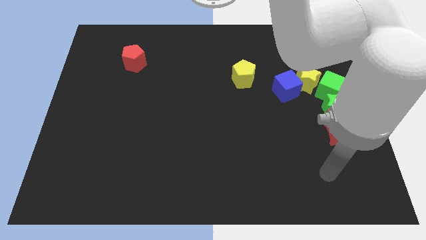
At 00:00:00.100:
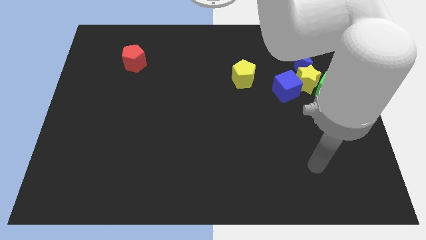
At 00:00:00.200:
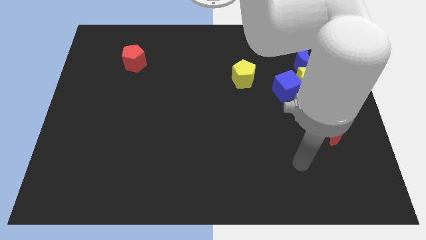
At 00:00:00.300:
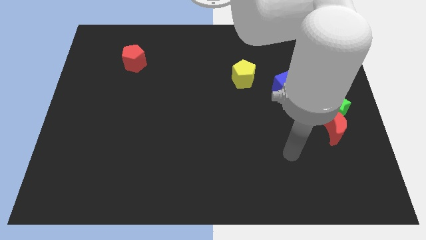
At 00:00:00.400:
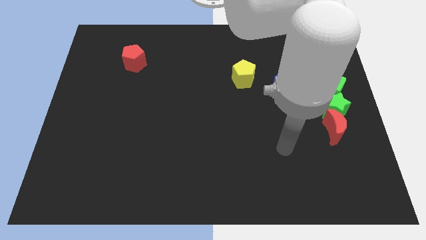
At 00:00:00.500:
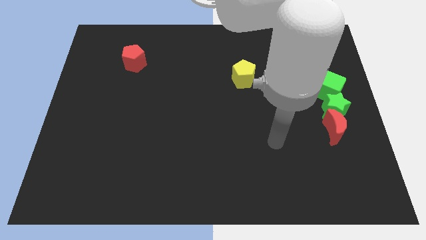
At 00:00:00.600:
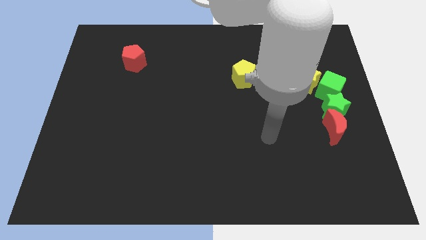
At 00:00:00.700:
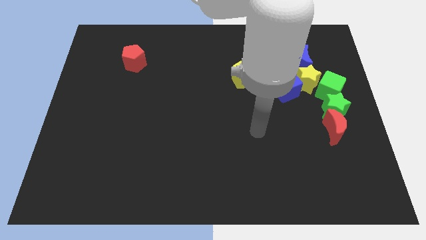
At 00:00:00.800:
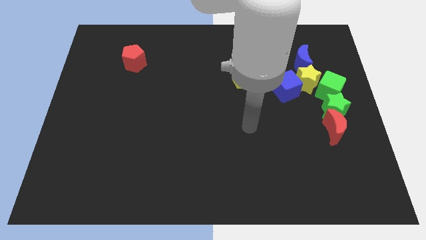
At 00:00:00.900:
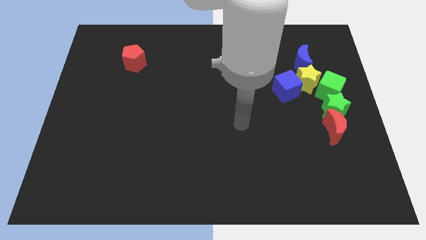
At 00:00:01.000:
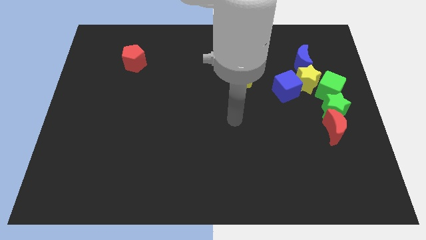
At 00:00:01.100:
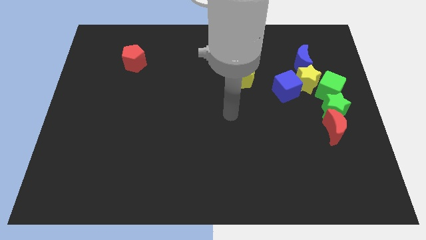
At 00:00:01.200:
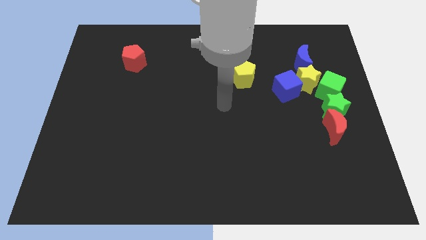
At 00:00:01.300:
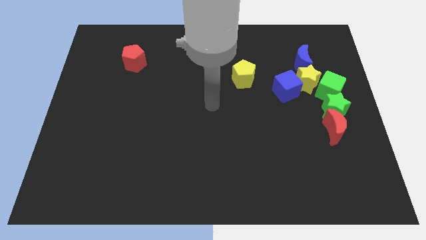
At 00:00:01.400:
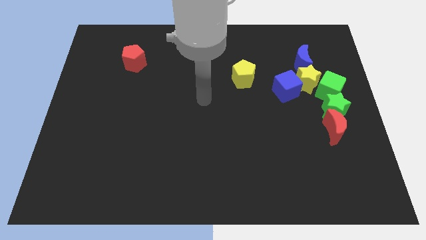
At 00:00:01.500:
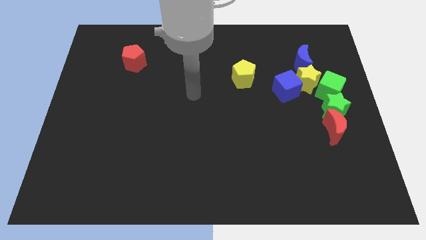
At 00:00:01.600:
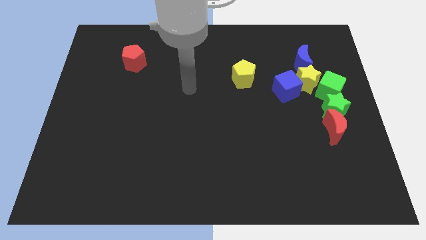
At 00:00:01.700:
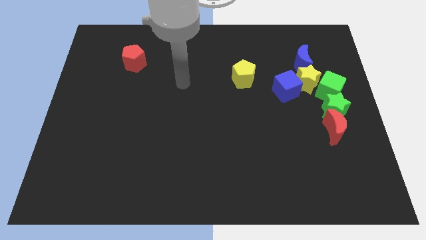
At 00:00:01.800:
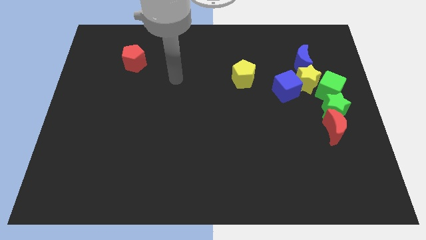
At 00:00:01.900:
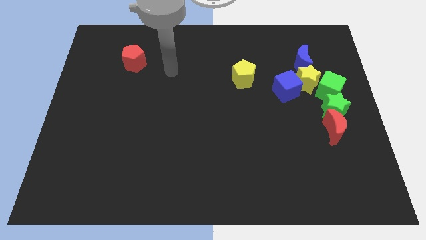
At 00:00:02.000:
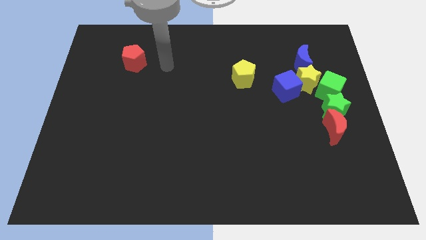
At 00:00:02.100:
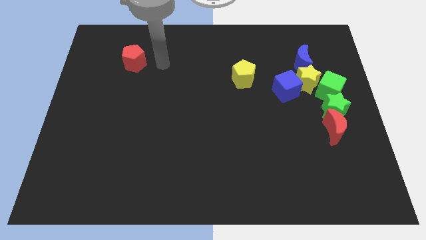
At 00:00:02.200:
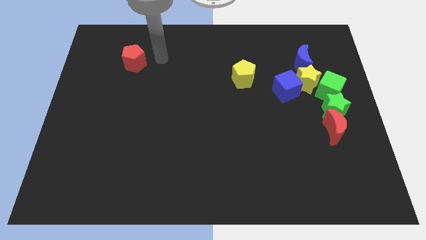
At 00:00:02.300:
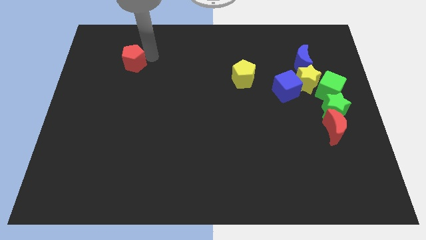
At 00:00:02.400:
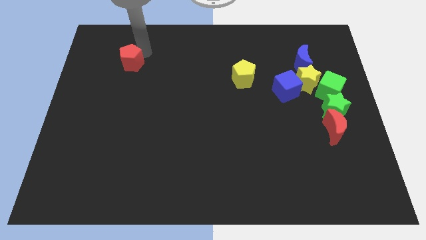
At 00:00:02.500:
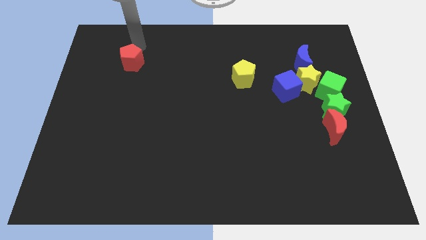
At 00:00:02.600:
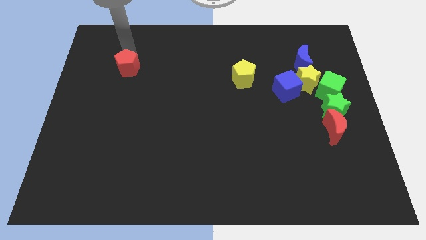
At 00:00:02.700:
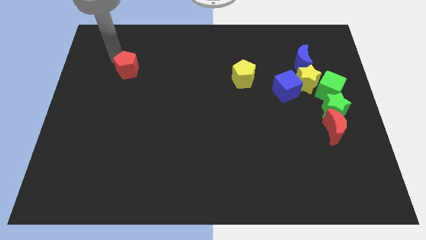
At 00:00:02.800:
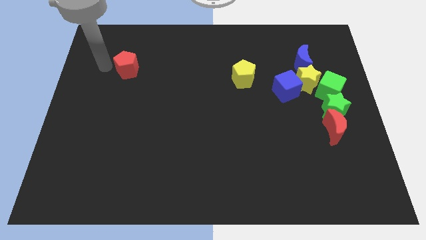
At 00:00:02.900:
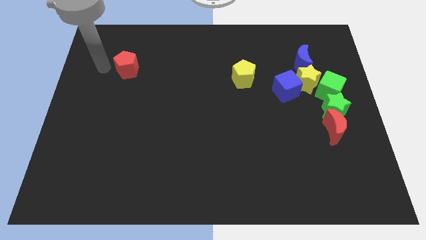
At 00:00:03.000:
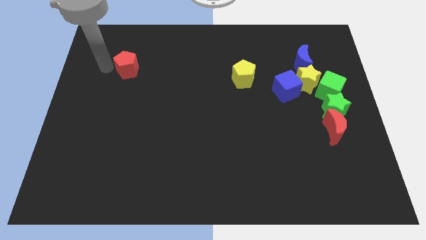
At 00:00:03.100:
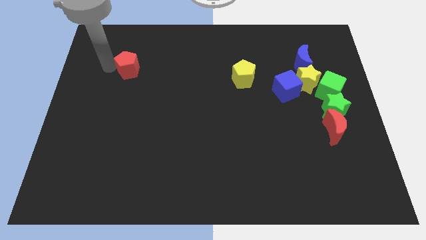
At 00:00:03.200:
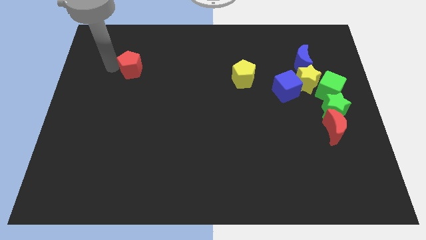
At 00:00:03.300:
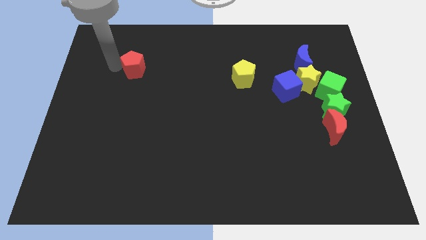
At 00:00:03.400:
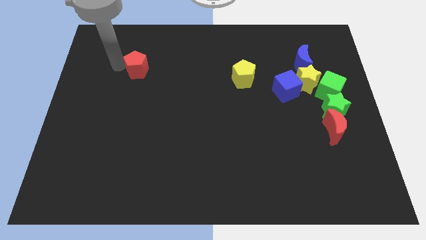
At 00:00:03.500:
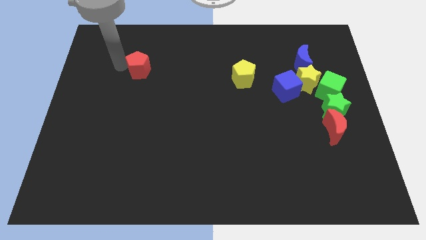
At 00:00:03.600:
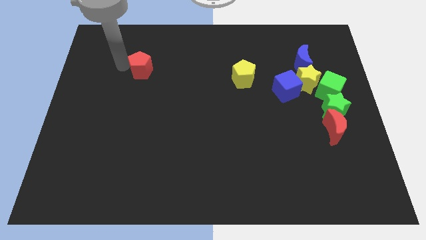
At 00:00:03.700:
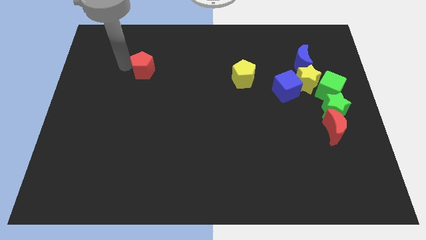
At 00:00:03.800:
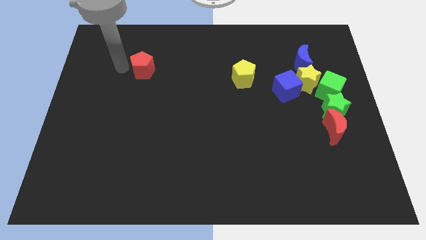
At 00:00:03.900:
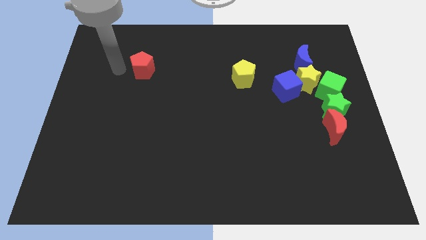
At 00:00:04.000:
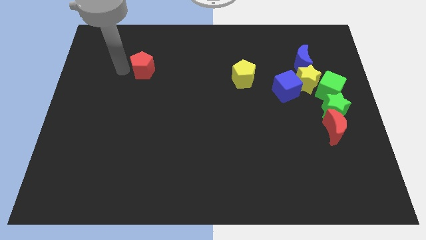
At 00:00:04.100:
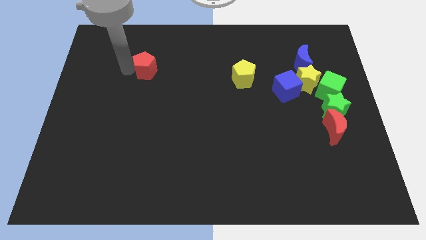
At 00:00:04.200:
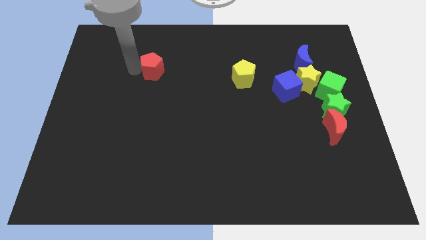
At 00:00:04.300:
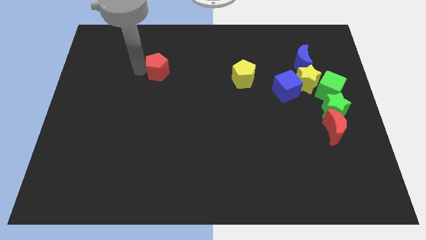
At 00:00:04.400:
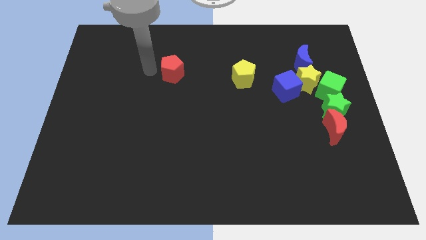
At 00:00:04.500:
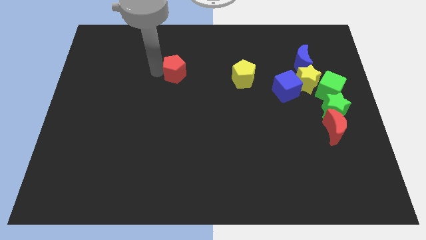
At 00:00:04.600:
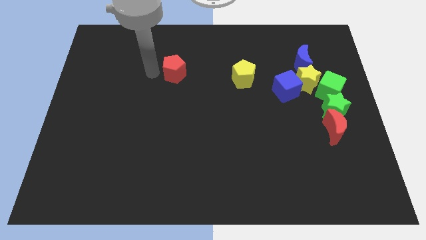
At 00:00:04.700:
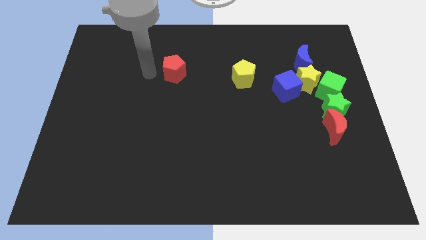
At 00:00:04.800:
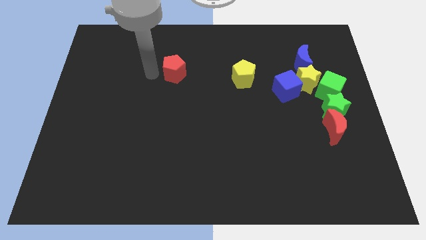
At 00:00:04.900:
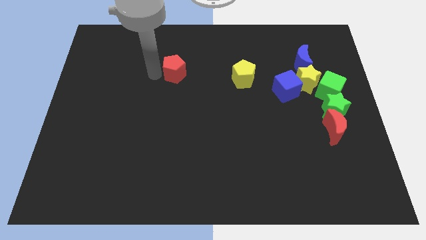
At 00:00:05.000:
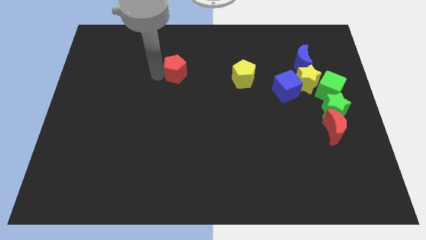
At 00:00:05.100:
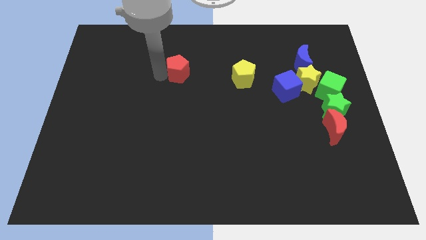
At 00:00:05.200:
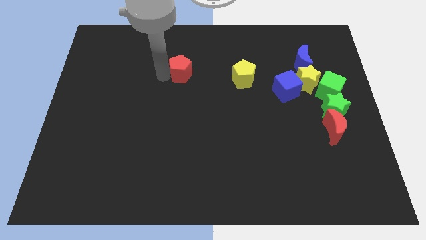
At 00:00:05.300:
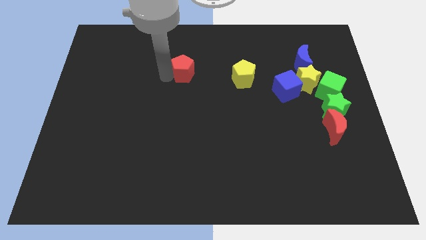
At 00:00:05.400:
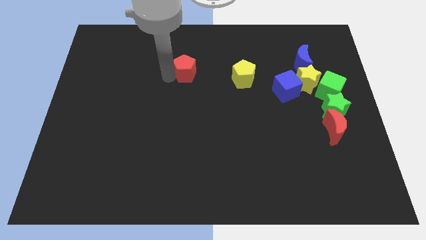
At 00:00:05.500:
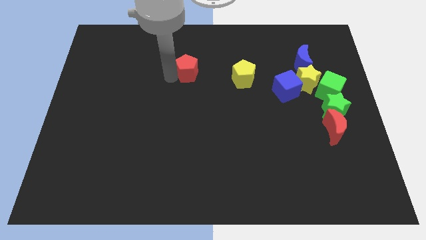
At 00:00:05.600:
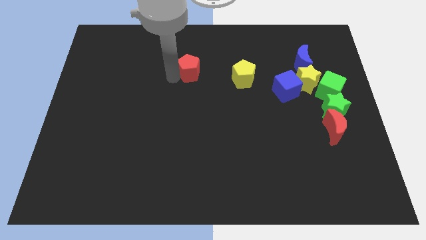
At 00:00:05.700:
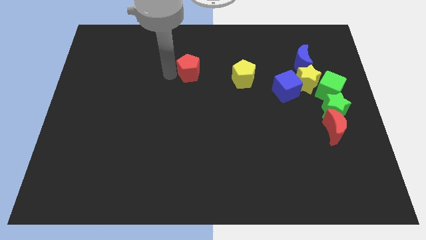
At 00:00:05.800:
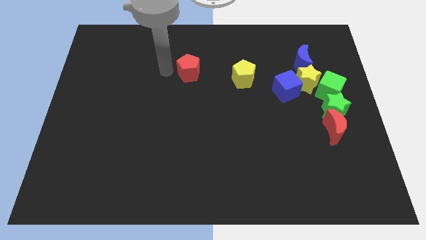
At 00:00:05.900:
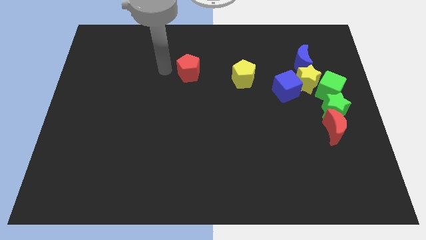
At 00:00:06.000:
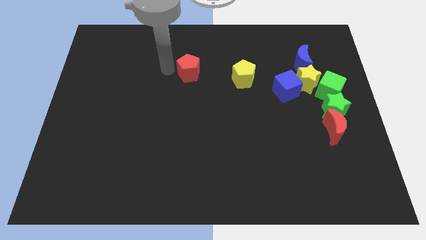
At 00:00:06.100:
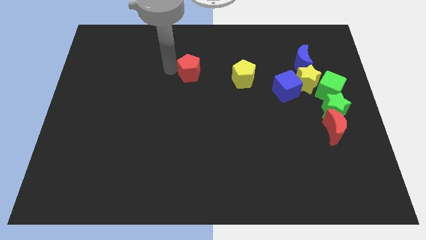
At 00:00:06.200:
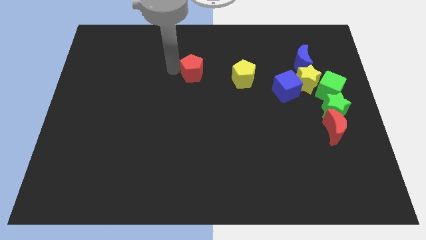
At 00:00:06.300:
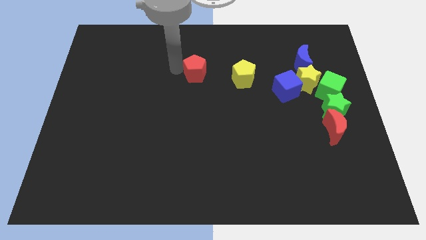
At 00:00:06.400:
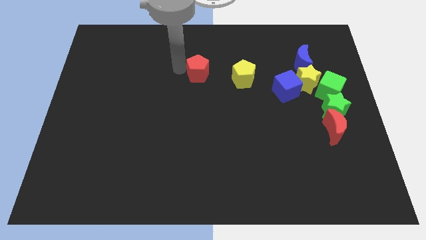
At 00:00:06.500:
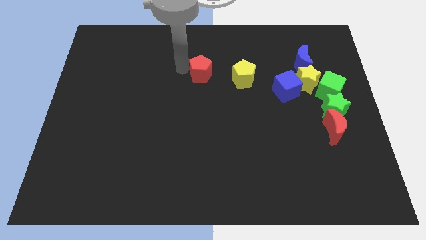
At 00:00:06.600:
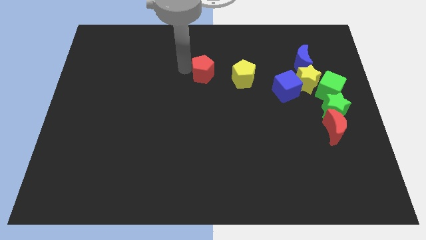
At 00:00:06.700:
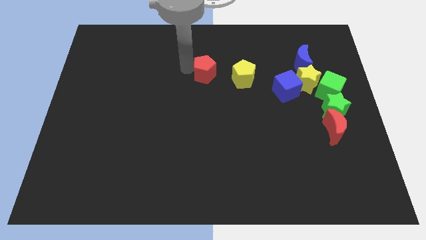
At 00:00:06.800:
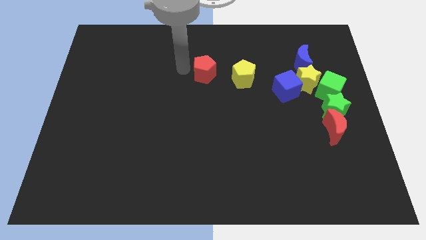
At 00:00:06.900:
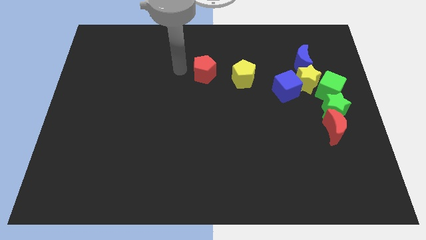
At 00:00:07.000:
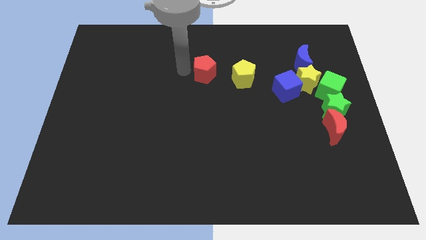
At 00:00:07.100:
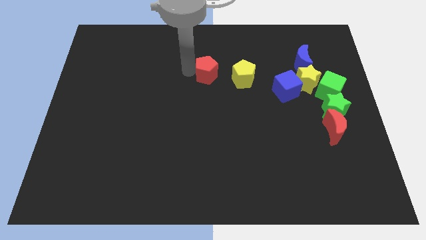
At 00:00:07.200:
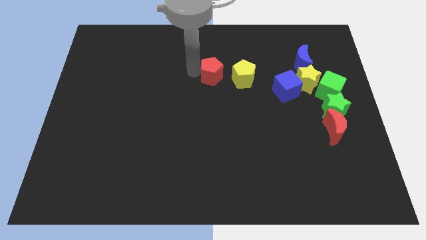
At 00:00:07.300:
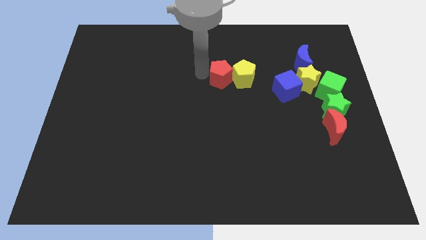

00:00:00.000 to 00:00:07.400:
slide the red pentagon to the yellow pentagon

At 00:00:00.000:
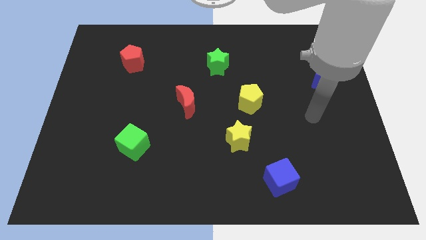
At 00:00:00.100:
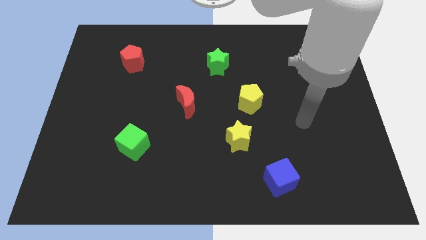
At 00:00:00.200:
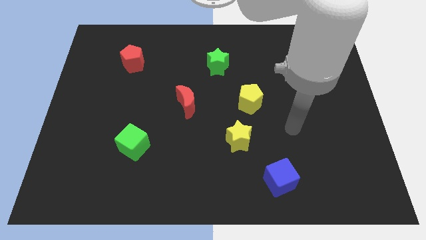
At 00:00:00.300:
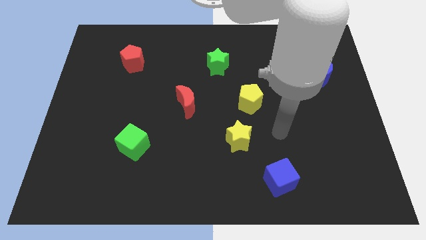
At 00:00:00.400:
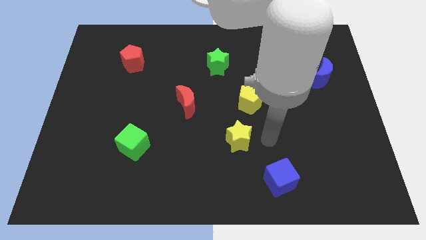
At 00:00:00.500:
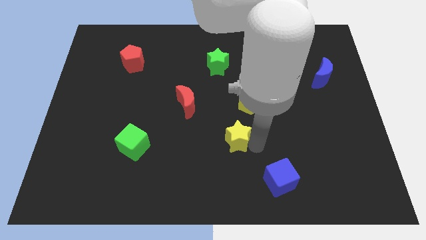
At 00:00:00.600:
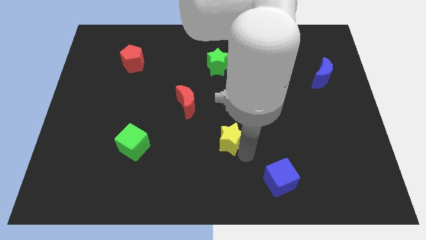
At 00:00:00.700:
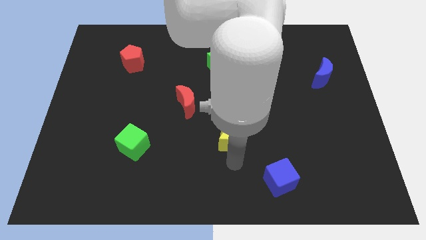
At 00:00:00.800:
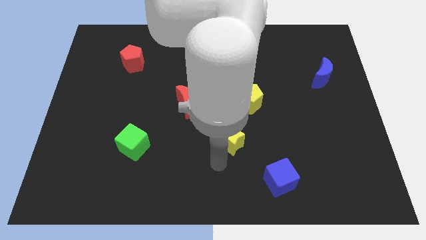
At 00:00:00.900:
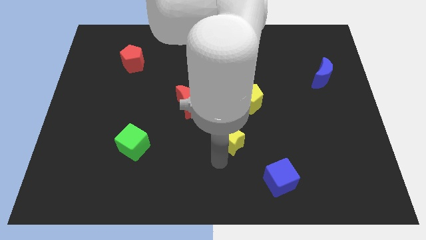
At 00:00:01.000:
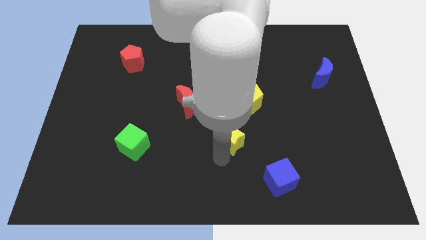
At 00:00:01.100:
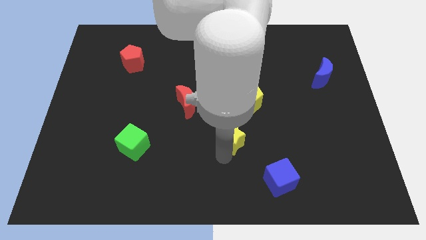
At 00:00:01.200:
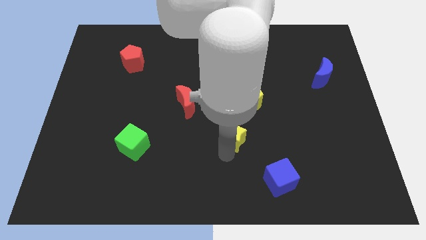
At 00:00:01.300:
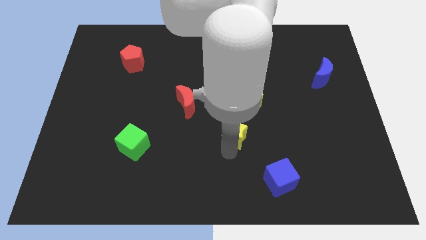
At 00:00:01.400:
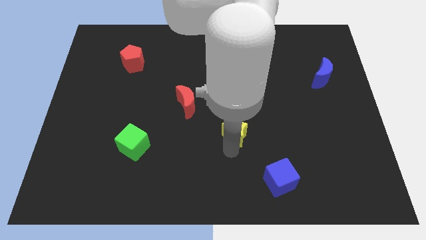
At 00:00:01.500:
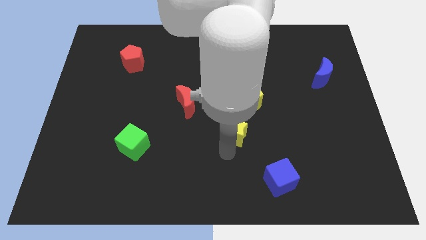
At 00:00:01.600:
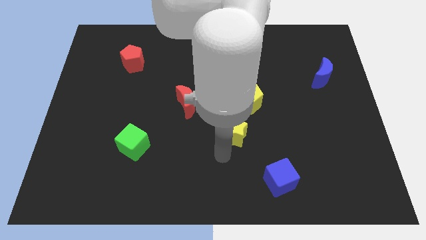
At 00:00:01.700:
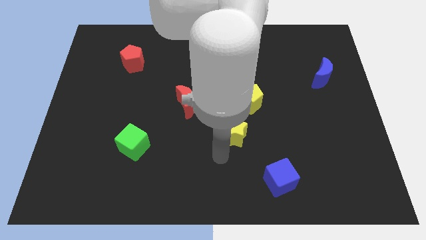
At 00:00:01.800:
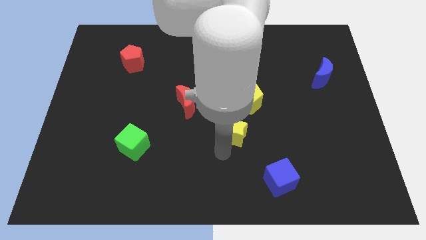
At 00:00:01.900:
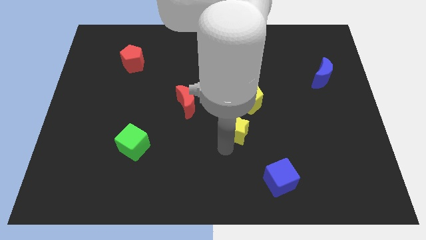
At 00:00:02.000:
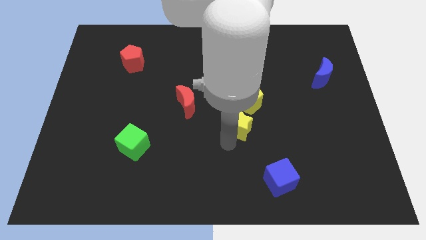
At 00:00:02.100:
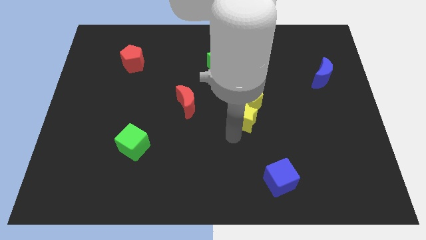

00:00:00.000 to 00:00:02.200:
put the yellow star to the yellow pentagon
